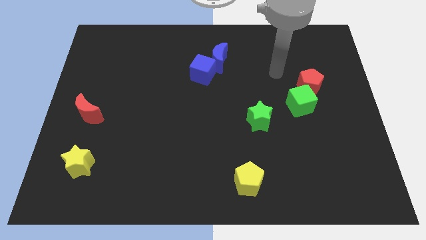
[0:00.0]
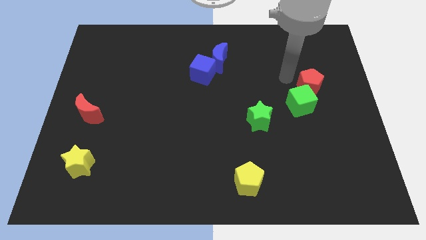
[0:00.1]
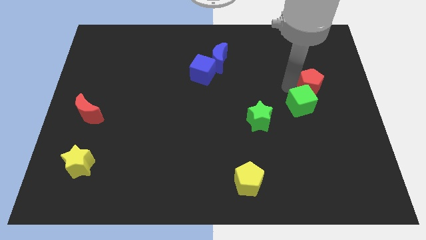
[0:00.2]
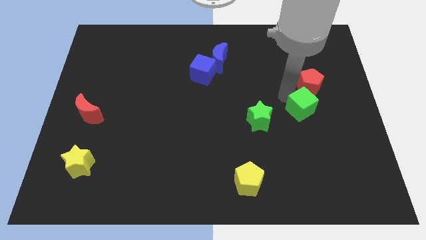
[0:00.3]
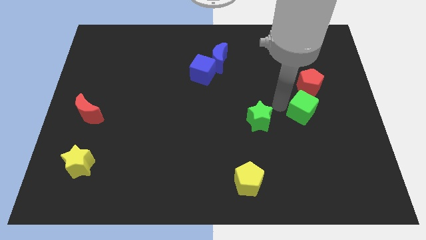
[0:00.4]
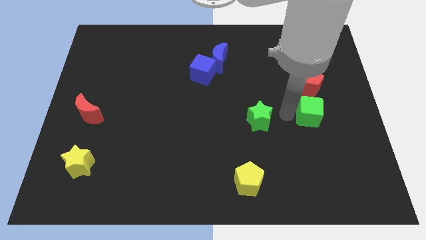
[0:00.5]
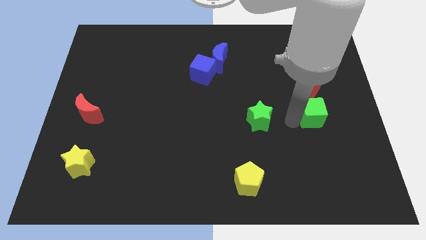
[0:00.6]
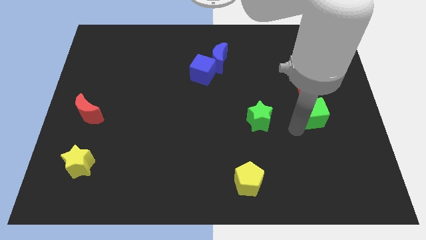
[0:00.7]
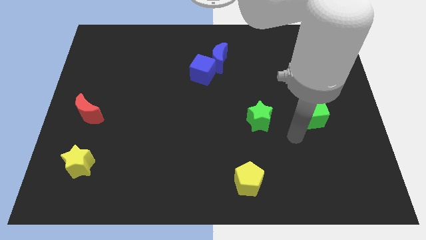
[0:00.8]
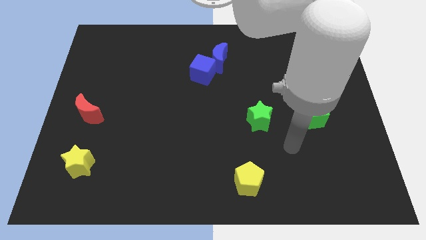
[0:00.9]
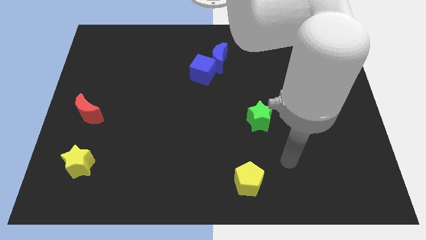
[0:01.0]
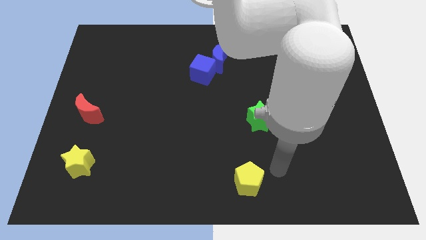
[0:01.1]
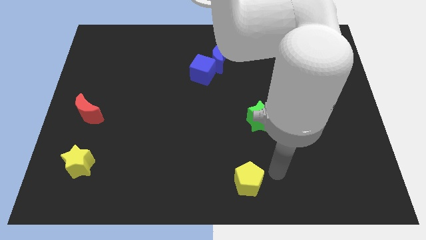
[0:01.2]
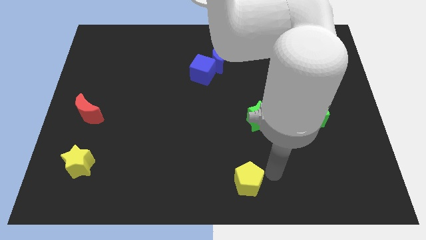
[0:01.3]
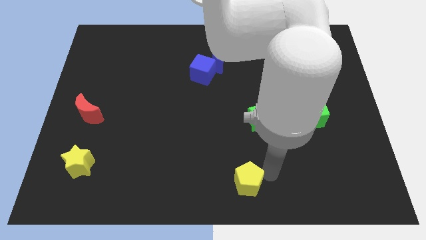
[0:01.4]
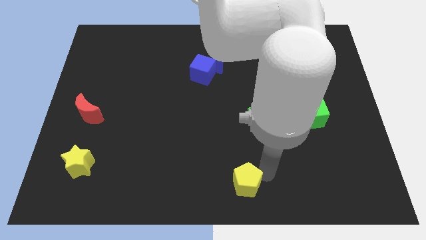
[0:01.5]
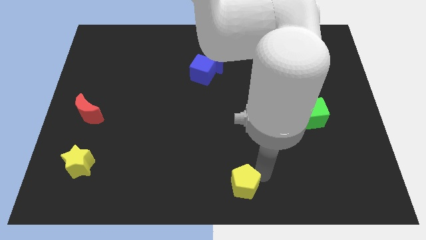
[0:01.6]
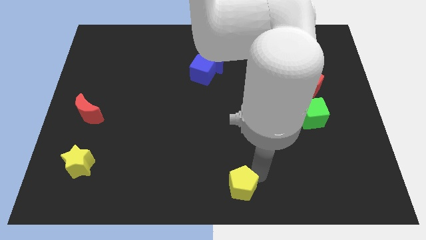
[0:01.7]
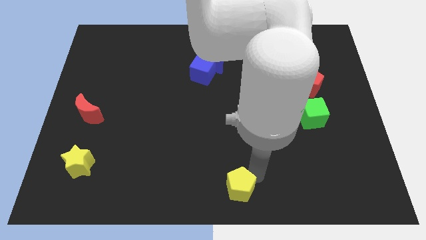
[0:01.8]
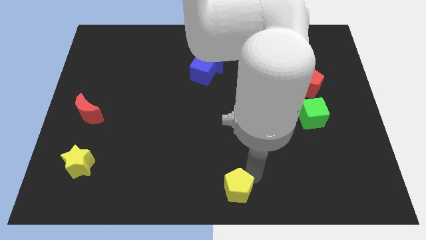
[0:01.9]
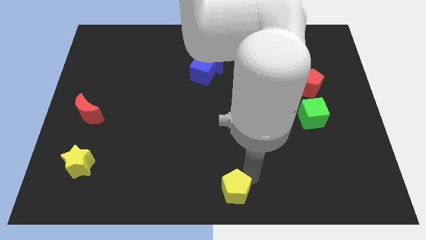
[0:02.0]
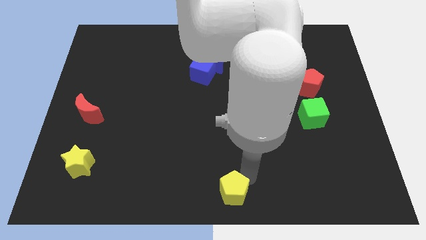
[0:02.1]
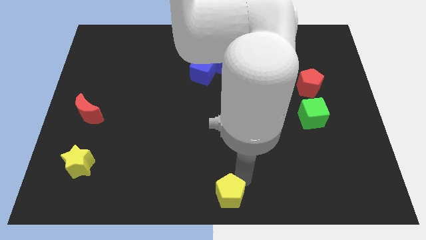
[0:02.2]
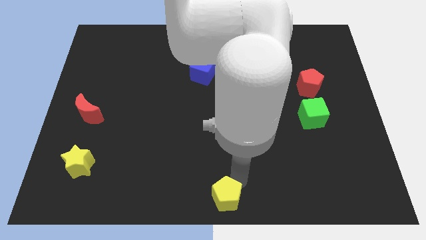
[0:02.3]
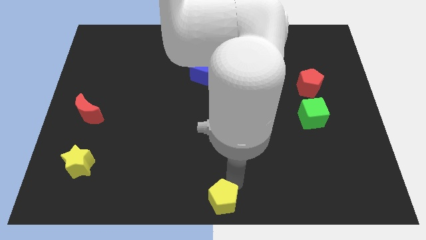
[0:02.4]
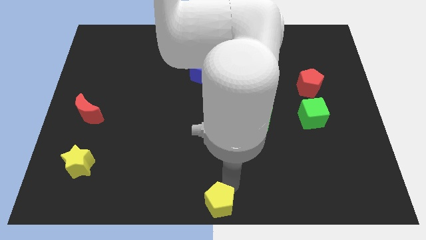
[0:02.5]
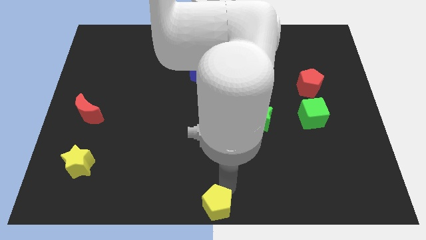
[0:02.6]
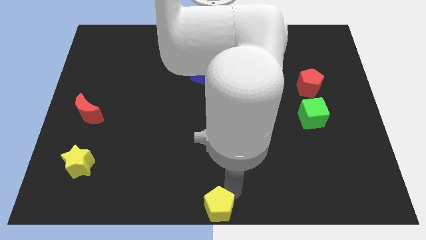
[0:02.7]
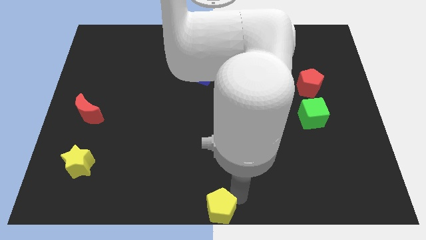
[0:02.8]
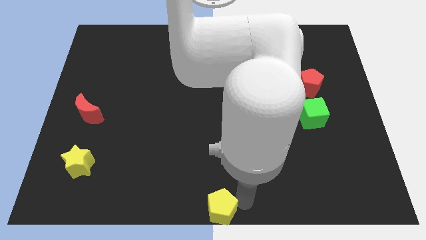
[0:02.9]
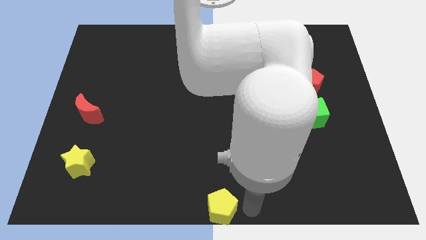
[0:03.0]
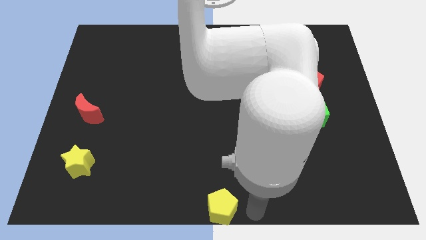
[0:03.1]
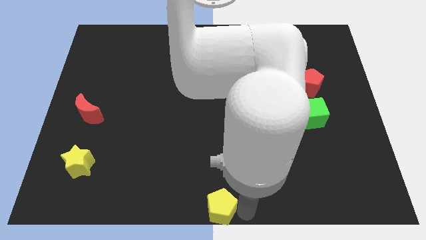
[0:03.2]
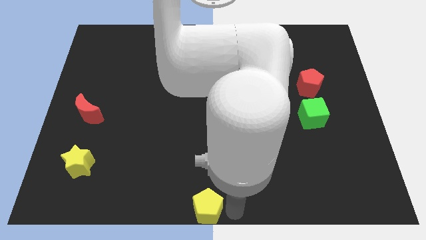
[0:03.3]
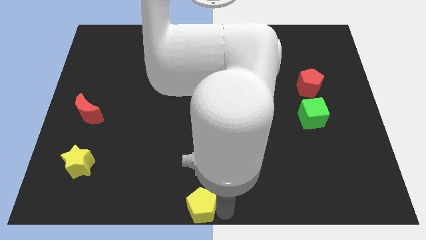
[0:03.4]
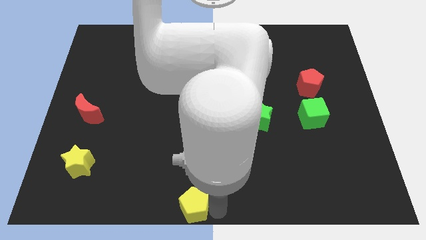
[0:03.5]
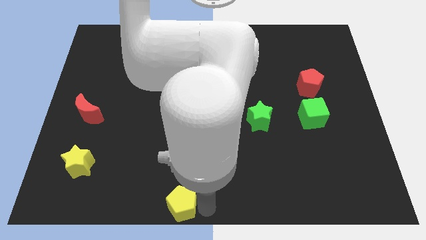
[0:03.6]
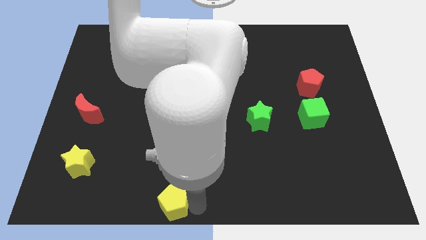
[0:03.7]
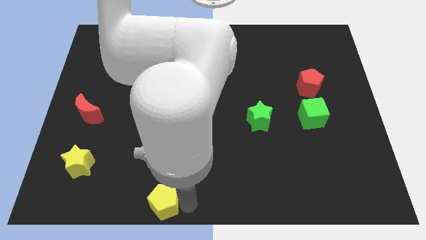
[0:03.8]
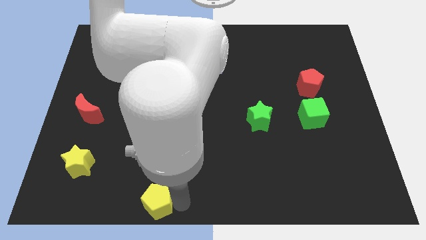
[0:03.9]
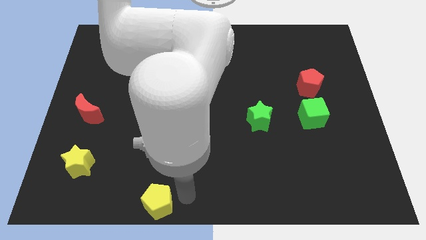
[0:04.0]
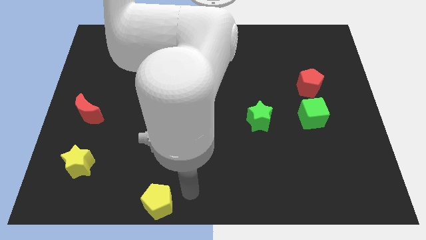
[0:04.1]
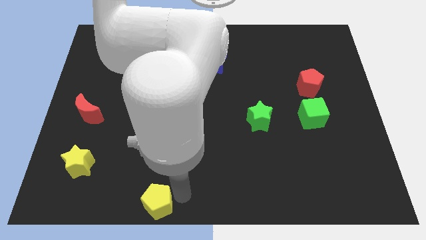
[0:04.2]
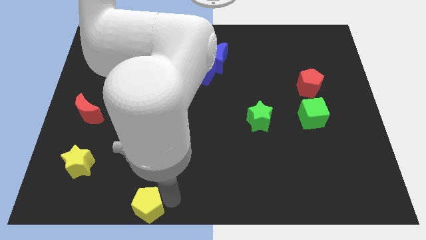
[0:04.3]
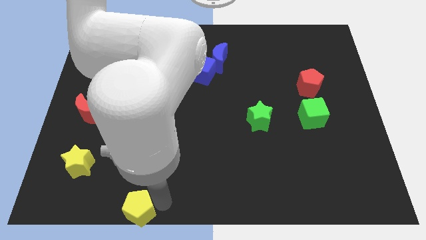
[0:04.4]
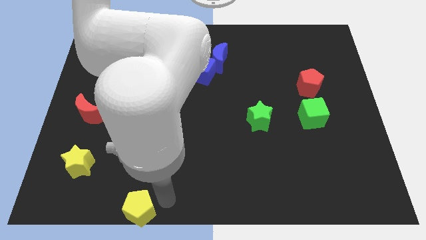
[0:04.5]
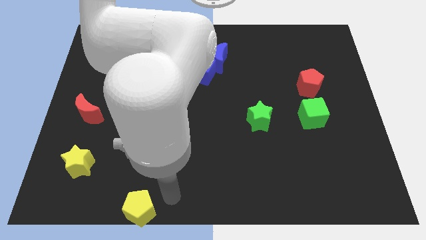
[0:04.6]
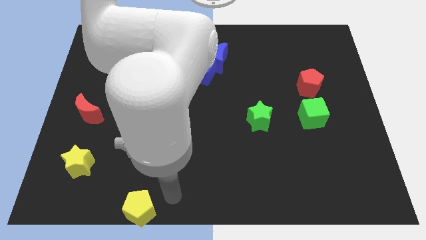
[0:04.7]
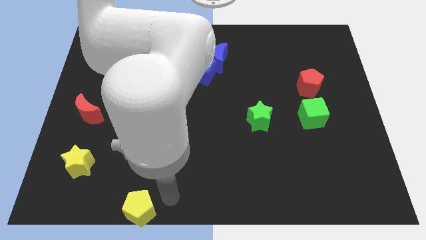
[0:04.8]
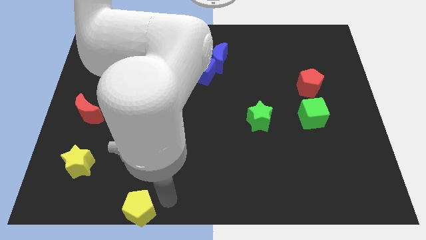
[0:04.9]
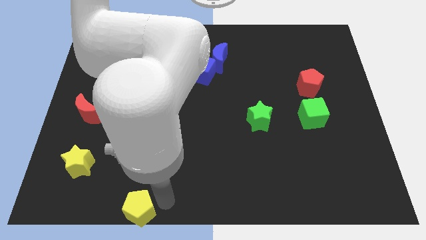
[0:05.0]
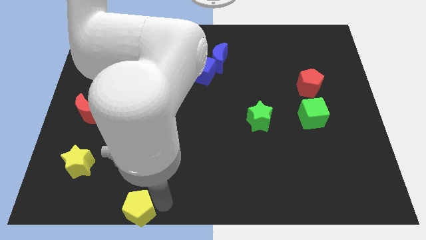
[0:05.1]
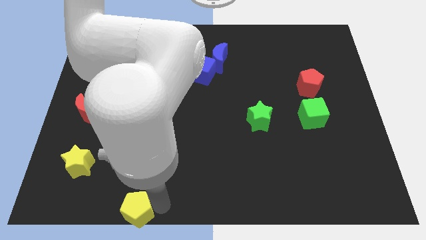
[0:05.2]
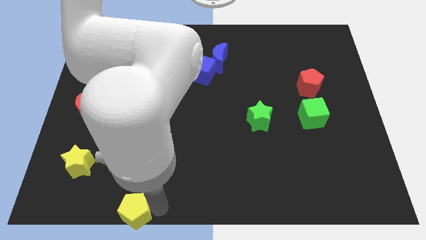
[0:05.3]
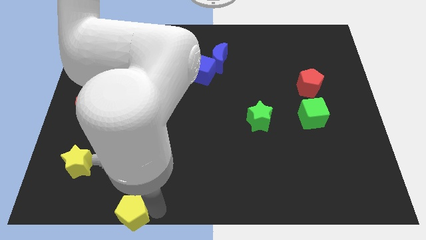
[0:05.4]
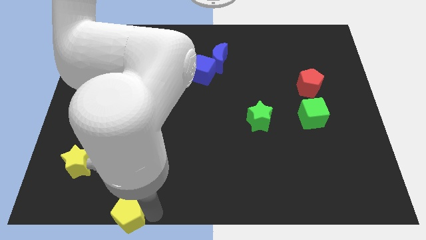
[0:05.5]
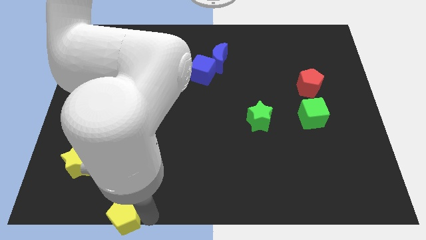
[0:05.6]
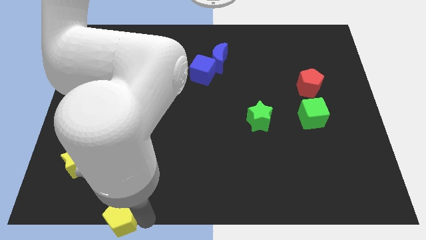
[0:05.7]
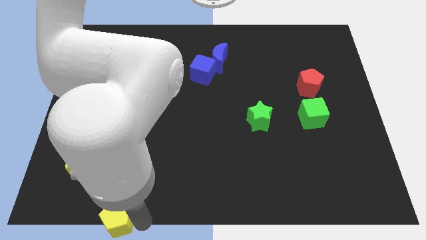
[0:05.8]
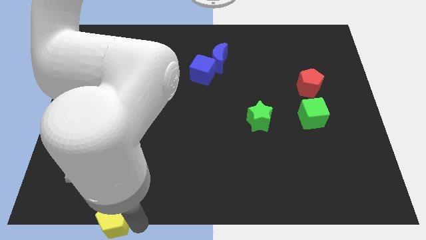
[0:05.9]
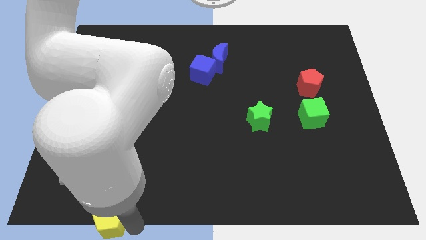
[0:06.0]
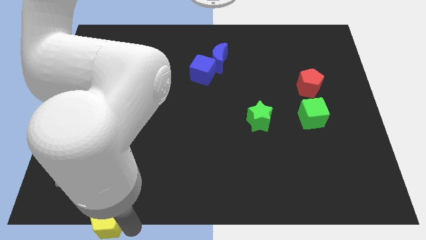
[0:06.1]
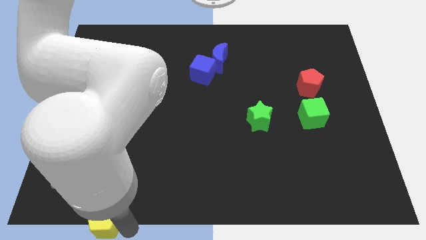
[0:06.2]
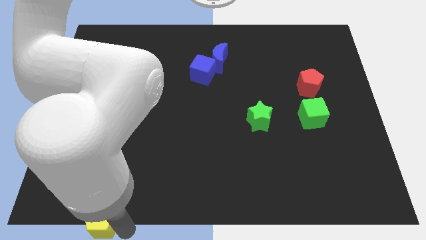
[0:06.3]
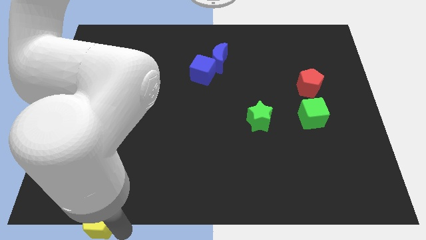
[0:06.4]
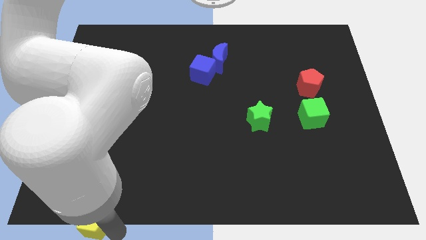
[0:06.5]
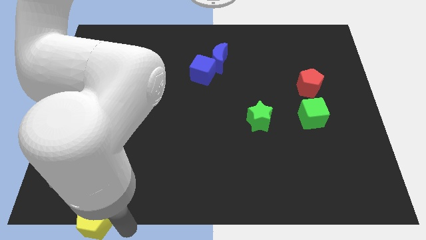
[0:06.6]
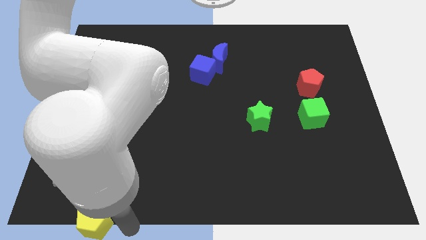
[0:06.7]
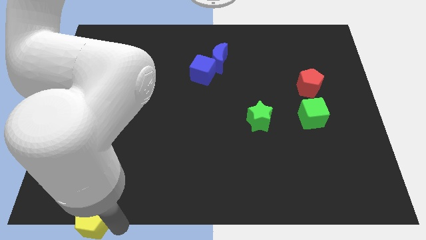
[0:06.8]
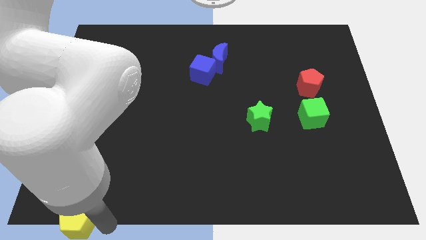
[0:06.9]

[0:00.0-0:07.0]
put the yellow pentagon to the bottom left
